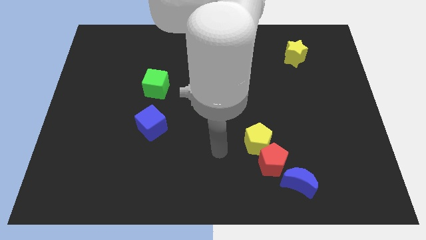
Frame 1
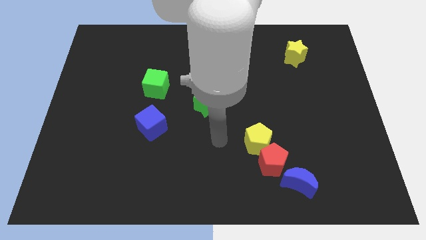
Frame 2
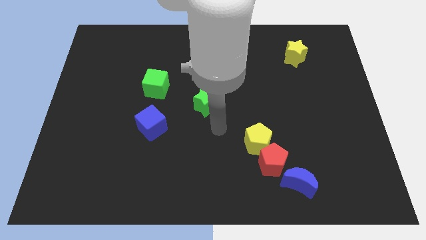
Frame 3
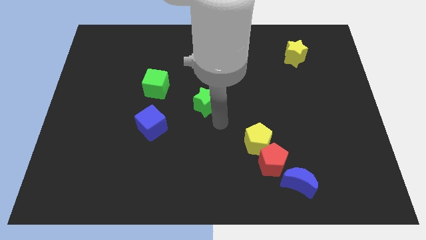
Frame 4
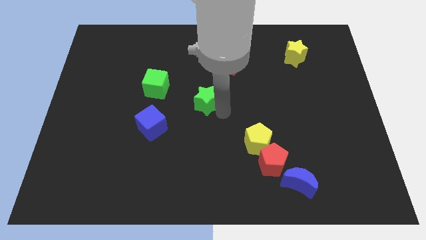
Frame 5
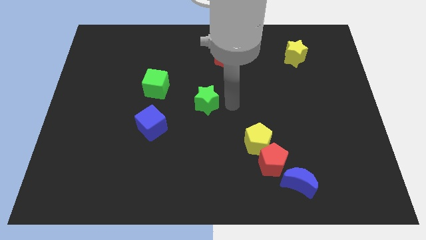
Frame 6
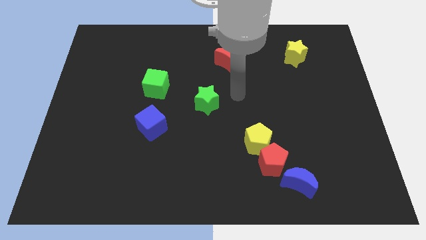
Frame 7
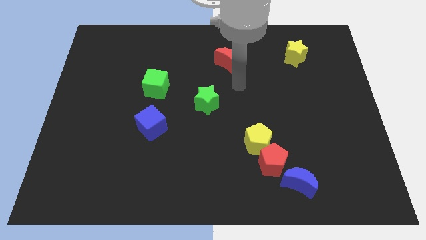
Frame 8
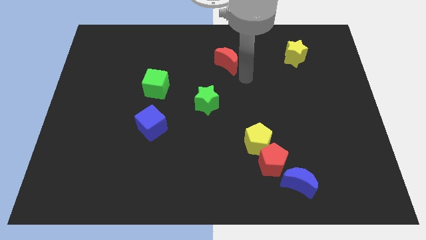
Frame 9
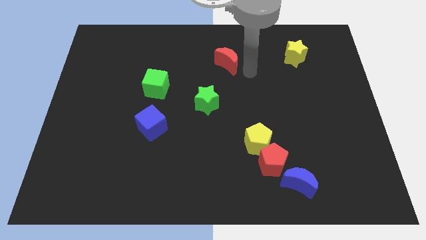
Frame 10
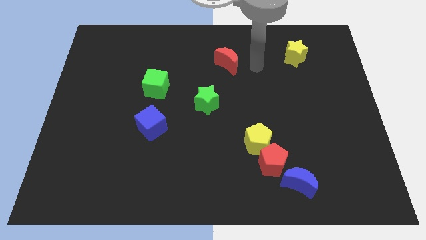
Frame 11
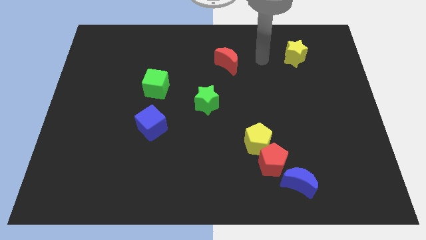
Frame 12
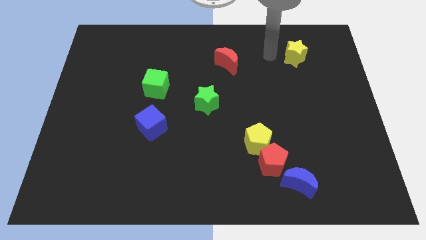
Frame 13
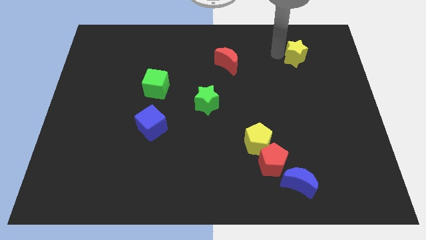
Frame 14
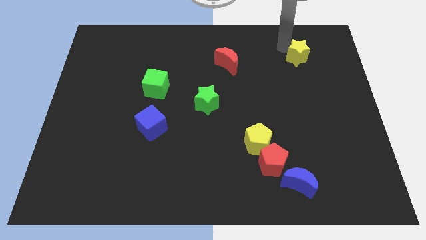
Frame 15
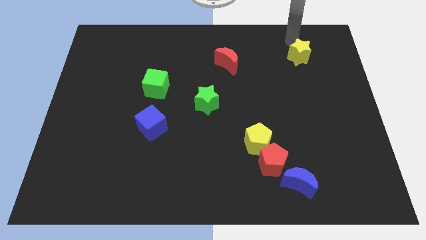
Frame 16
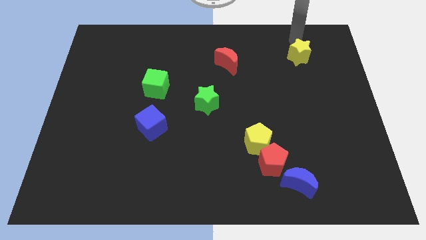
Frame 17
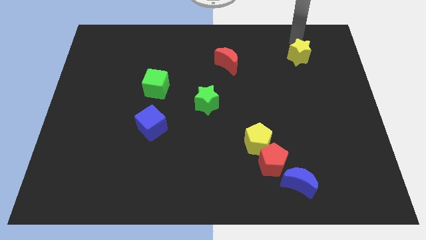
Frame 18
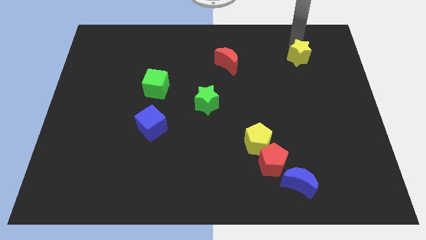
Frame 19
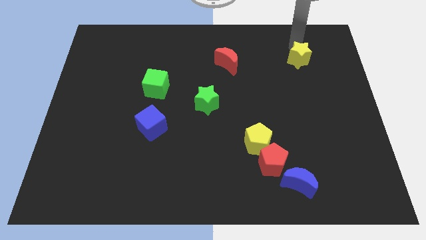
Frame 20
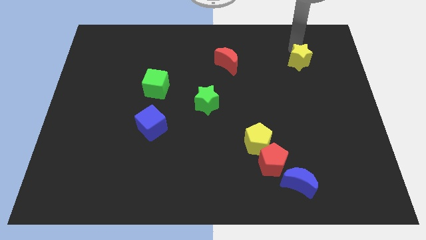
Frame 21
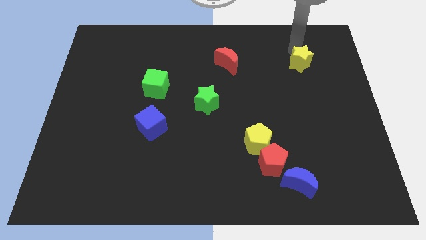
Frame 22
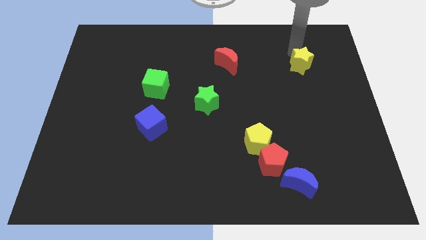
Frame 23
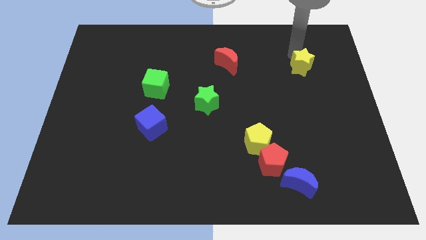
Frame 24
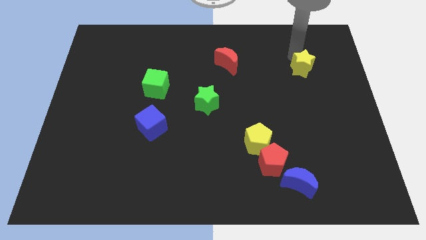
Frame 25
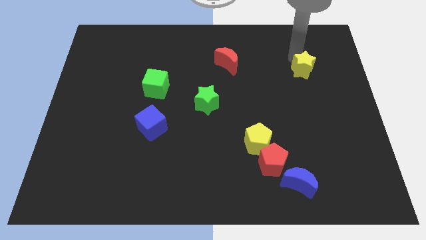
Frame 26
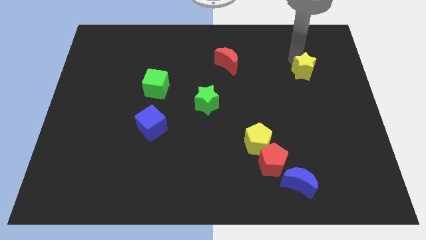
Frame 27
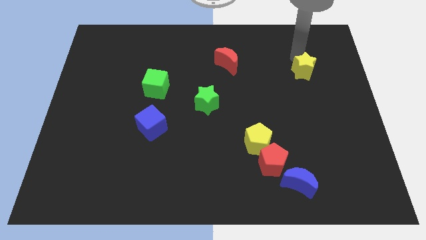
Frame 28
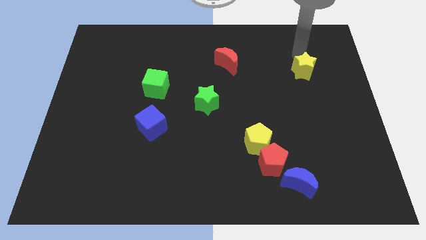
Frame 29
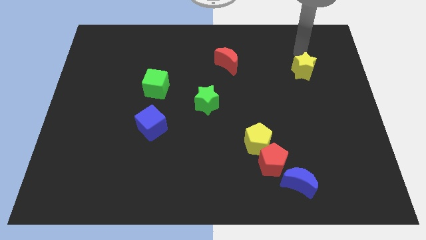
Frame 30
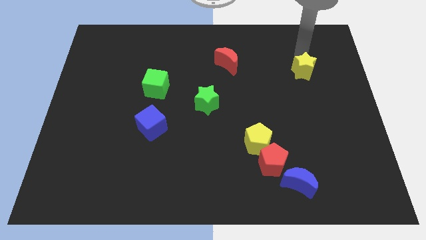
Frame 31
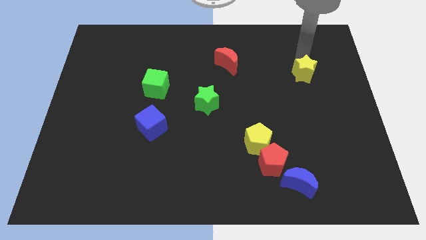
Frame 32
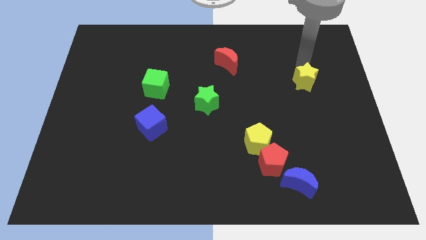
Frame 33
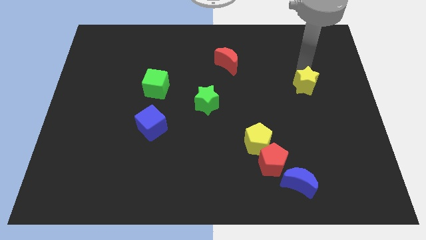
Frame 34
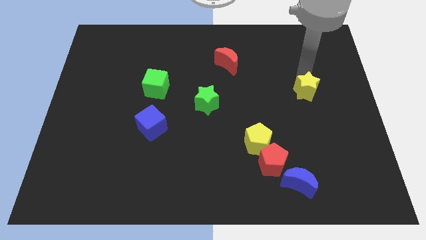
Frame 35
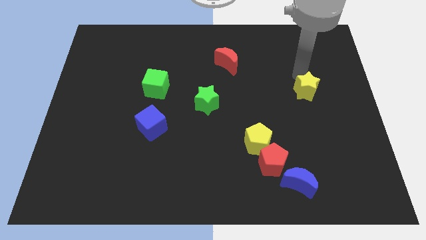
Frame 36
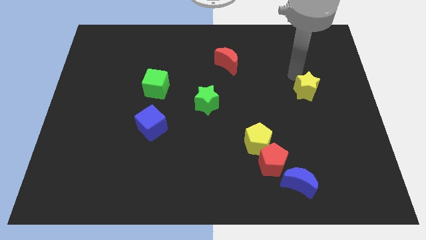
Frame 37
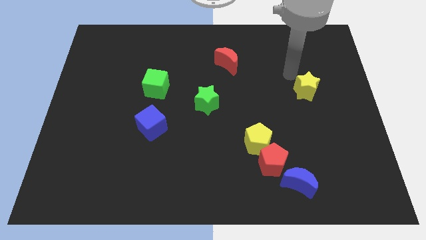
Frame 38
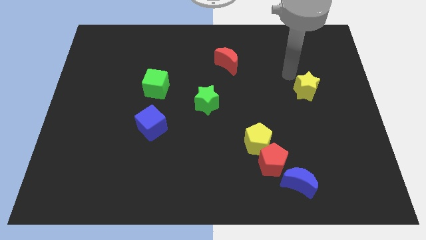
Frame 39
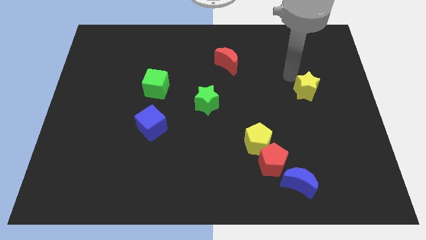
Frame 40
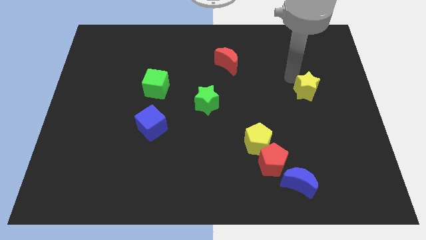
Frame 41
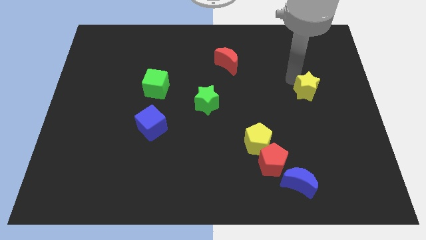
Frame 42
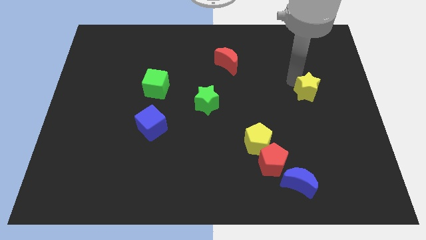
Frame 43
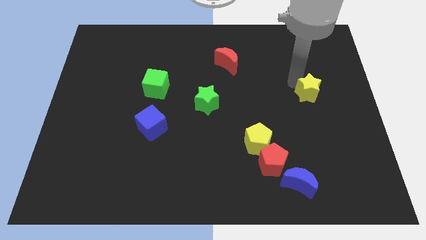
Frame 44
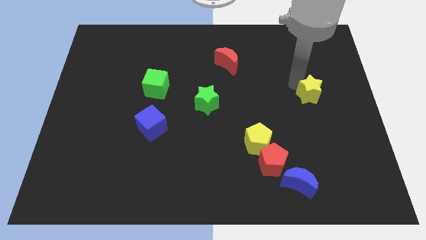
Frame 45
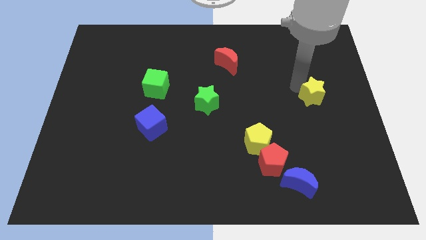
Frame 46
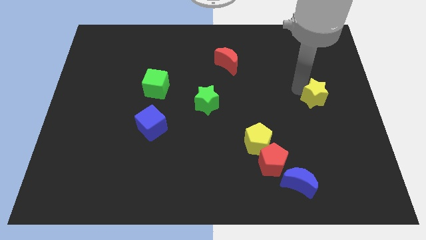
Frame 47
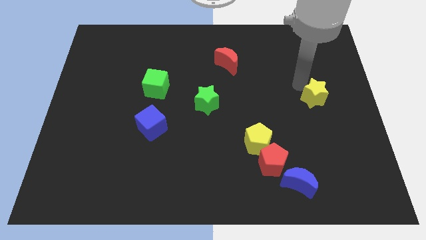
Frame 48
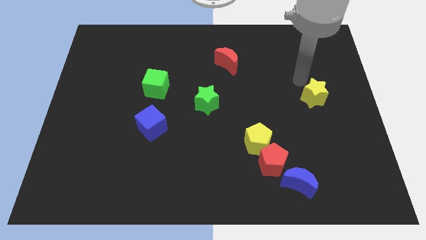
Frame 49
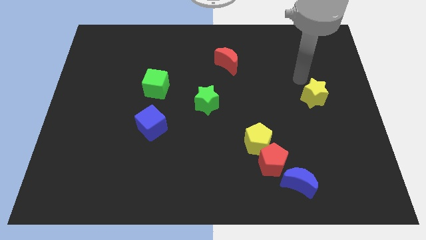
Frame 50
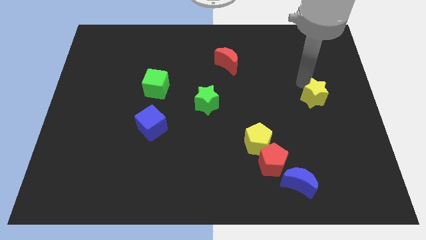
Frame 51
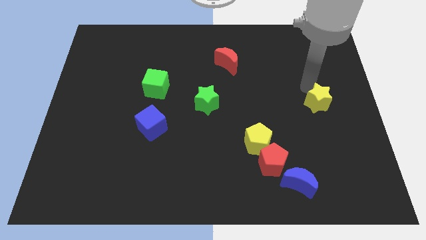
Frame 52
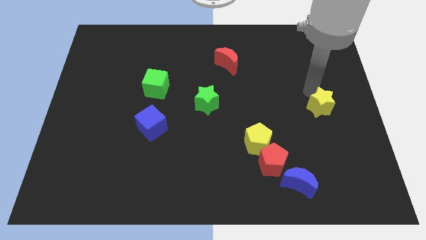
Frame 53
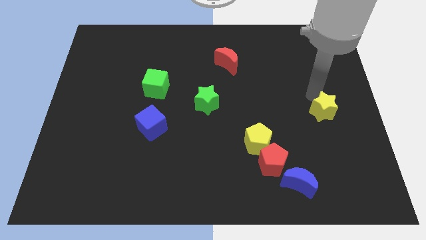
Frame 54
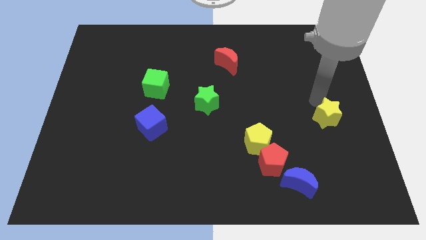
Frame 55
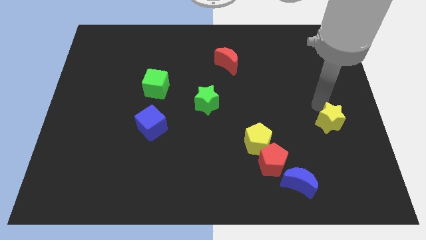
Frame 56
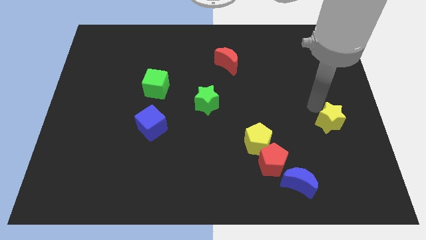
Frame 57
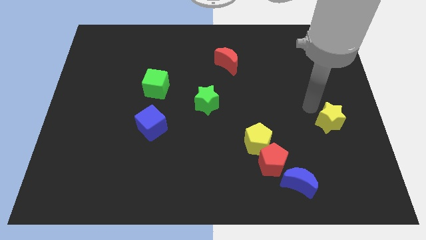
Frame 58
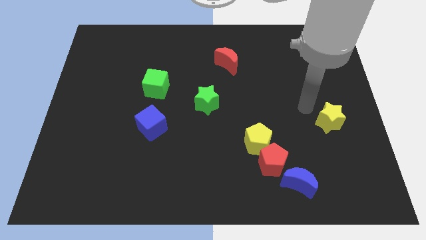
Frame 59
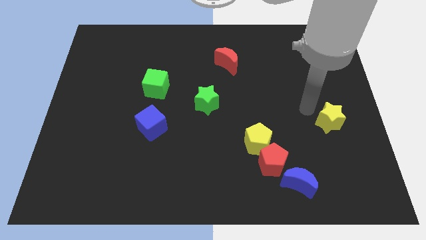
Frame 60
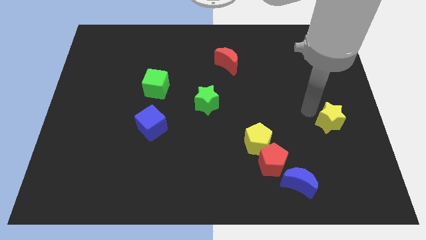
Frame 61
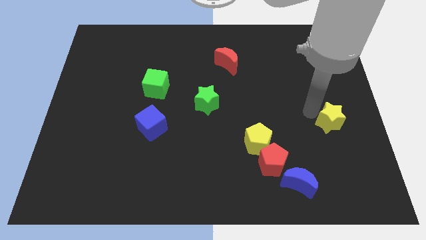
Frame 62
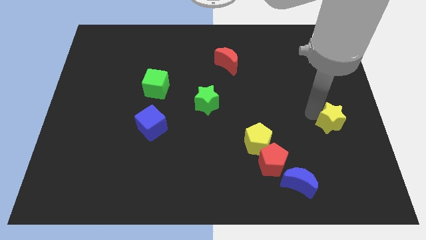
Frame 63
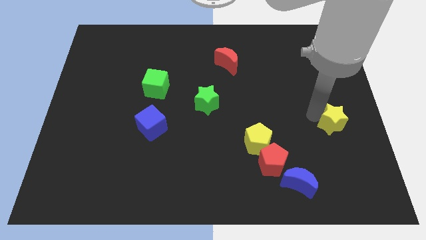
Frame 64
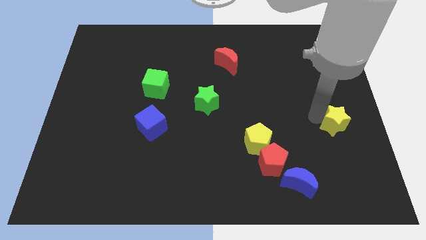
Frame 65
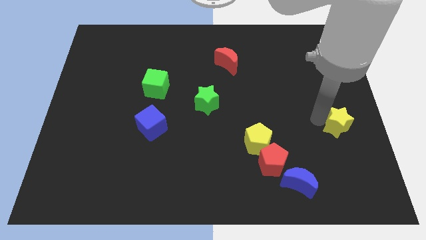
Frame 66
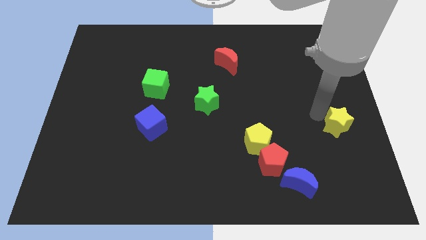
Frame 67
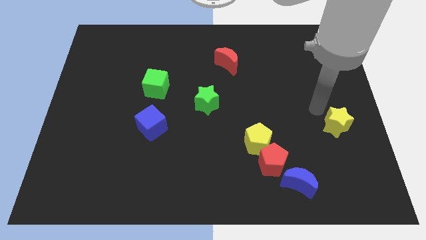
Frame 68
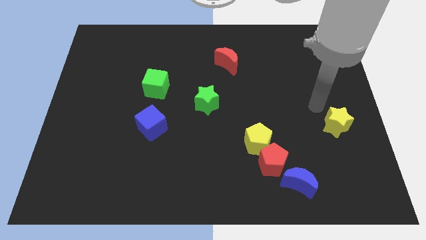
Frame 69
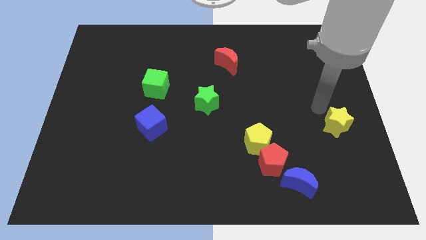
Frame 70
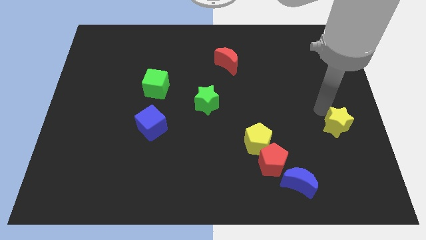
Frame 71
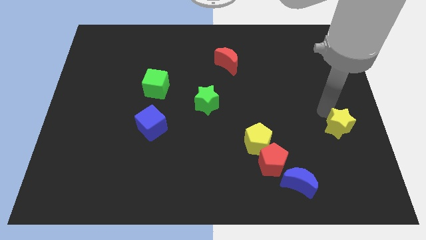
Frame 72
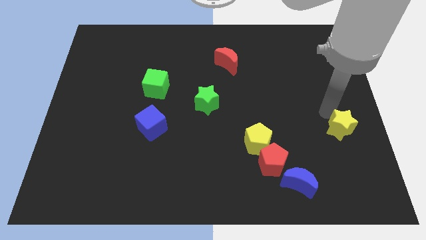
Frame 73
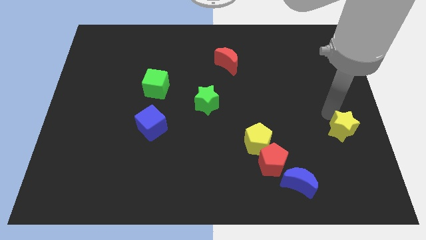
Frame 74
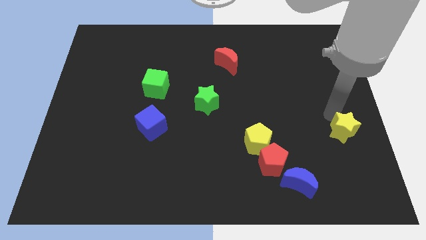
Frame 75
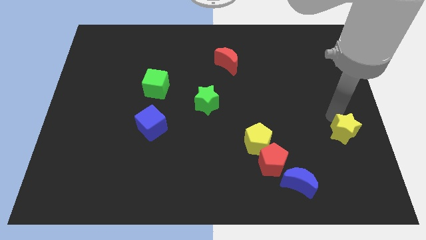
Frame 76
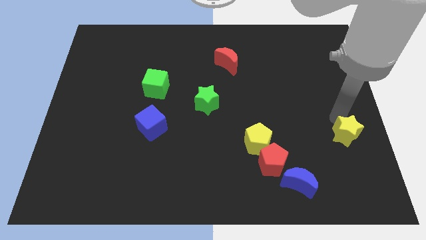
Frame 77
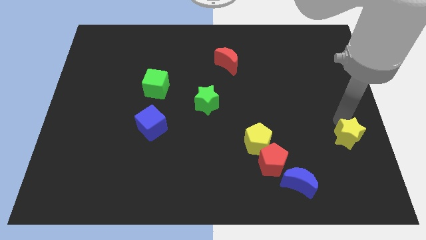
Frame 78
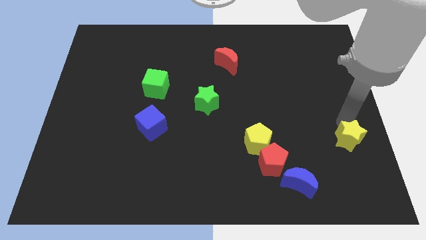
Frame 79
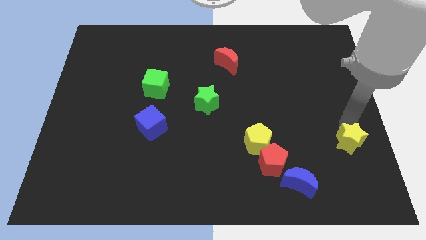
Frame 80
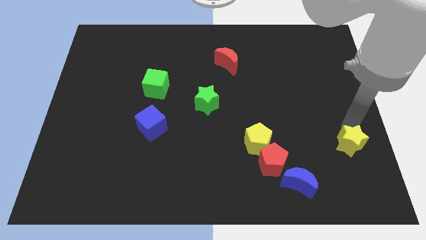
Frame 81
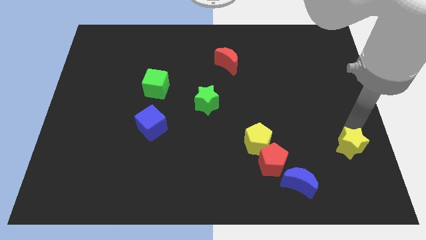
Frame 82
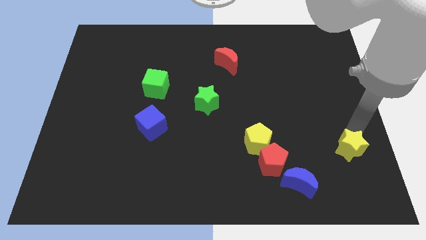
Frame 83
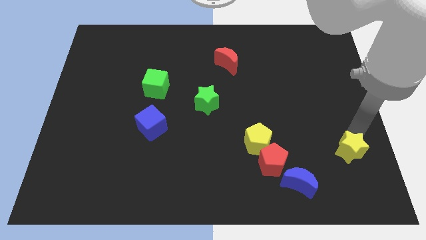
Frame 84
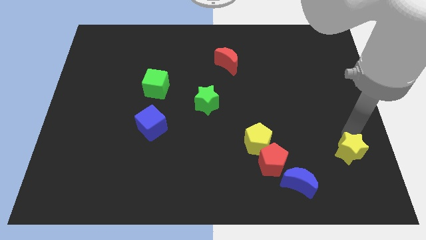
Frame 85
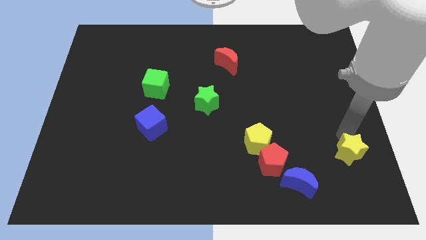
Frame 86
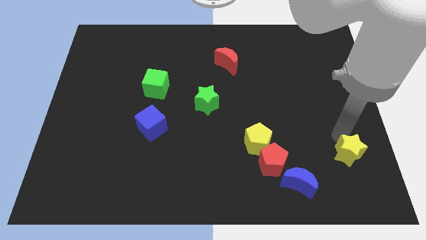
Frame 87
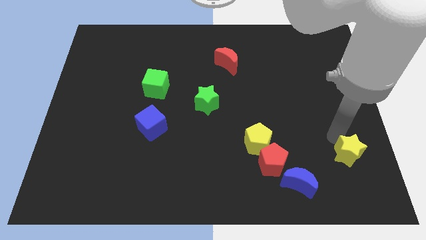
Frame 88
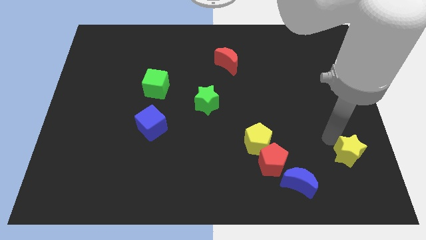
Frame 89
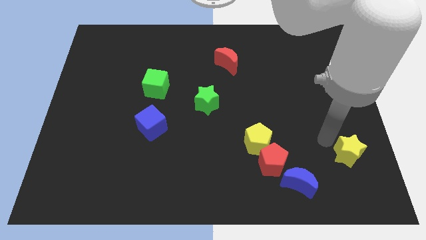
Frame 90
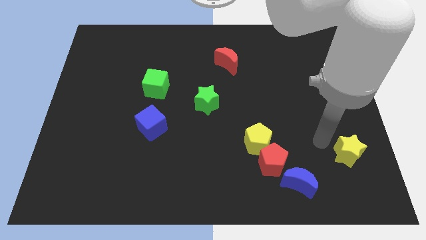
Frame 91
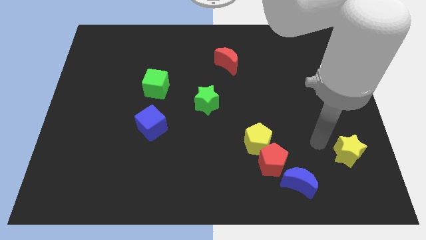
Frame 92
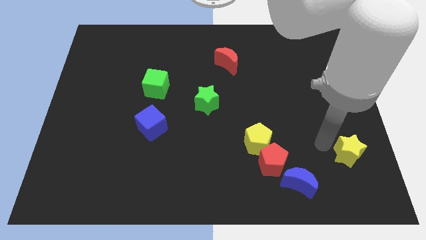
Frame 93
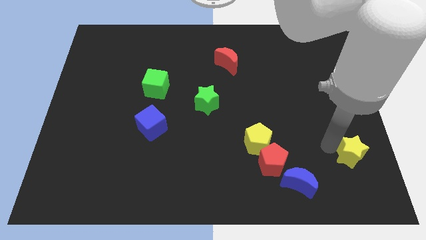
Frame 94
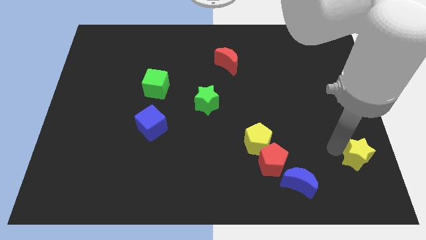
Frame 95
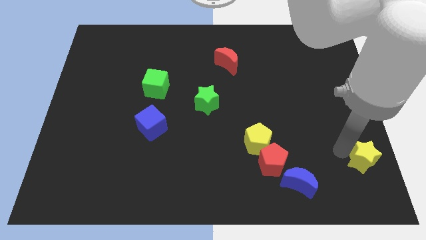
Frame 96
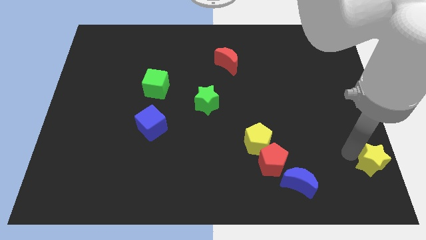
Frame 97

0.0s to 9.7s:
push the yellow star to the lower right corner
